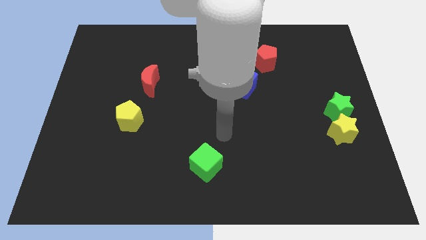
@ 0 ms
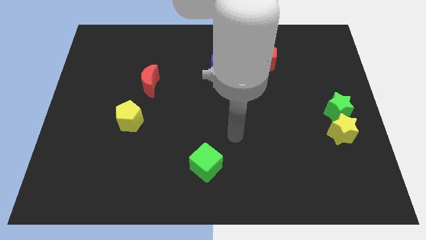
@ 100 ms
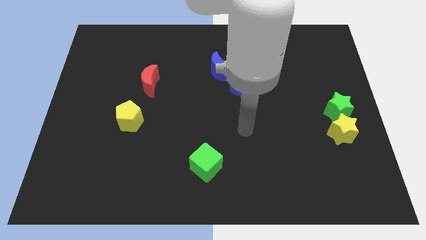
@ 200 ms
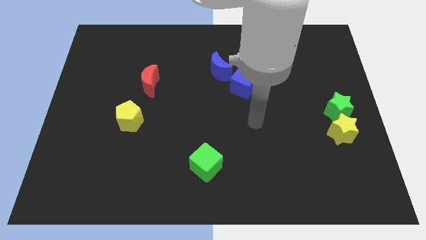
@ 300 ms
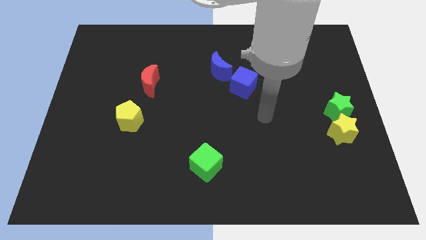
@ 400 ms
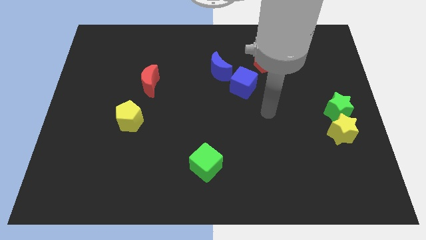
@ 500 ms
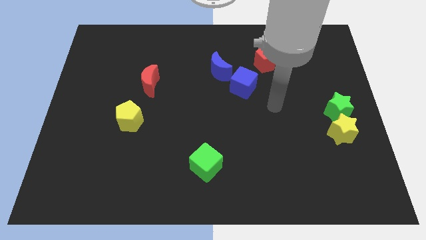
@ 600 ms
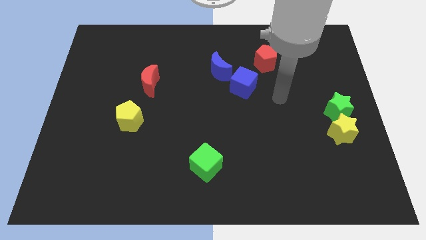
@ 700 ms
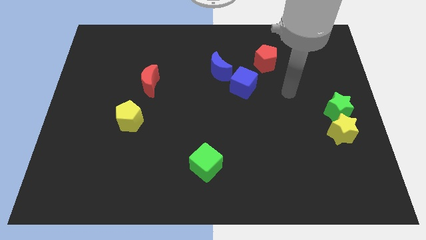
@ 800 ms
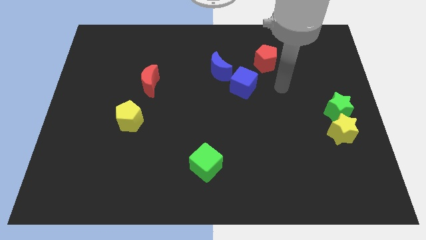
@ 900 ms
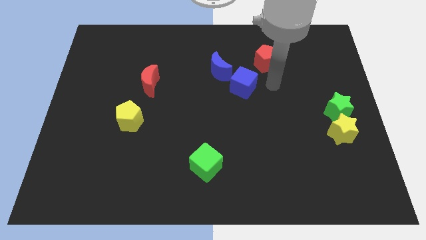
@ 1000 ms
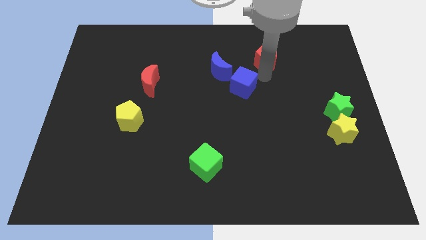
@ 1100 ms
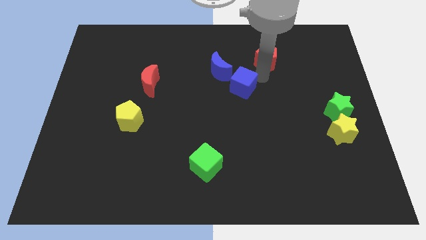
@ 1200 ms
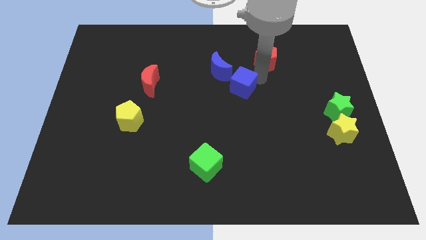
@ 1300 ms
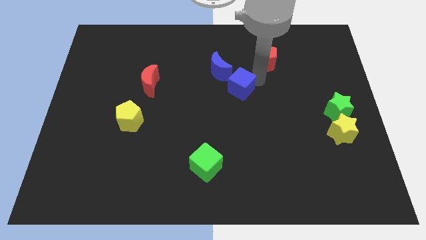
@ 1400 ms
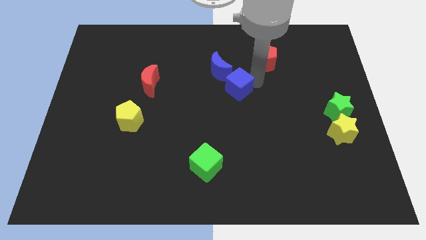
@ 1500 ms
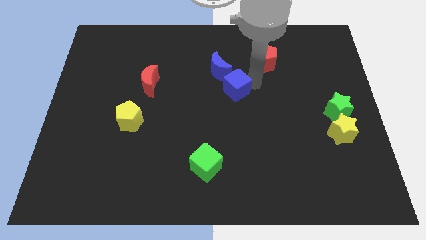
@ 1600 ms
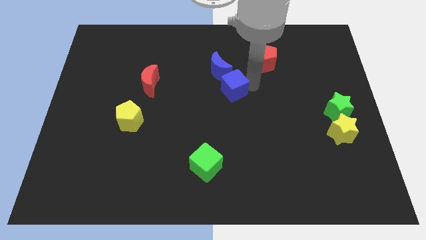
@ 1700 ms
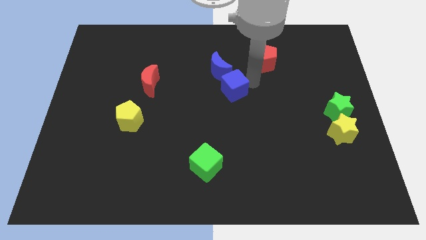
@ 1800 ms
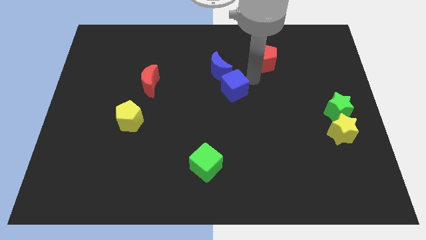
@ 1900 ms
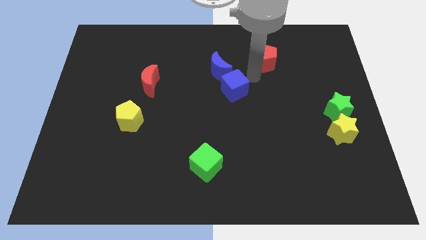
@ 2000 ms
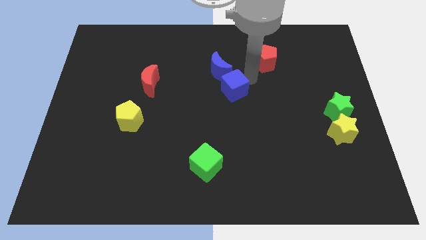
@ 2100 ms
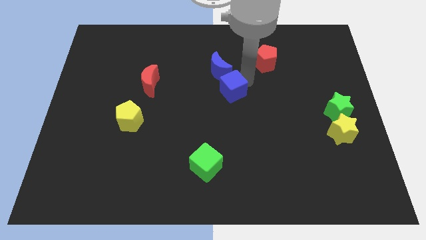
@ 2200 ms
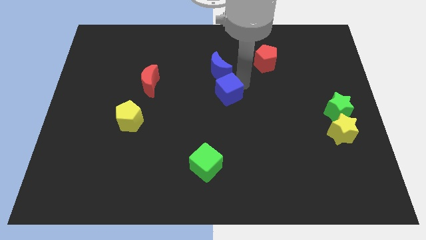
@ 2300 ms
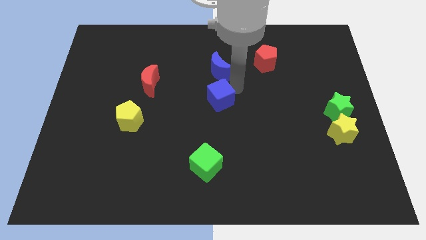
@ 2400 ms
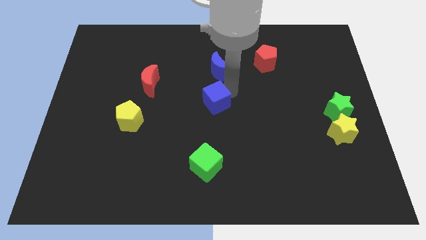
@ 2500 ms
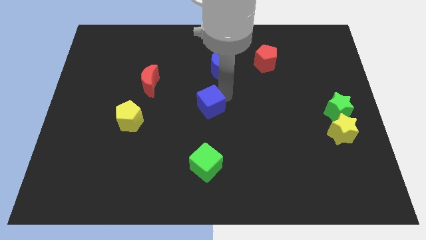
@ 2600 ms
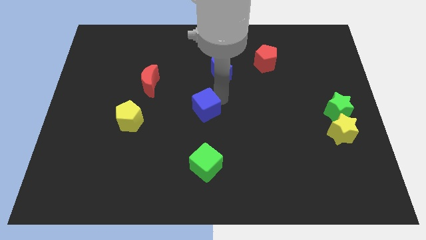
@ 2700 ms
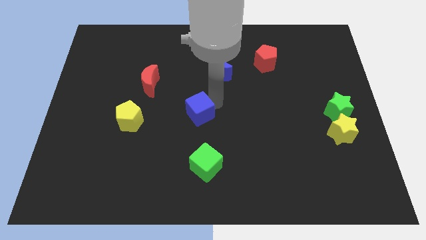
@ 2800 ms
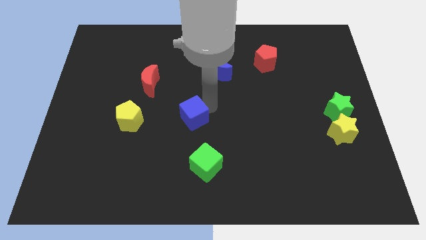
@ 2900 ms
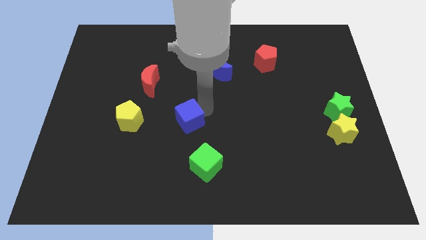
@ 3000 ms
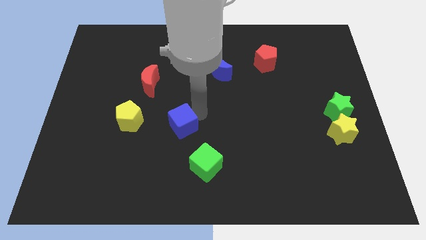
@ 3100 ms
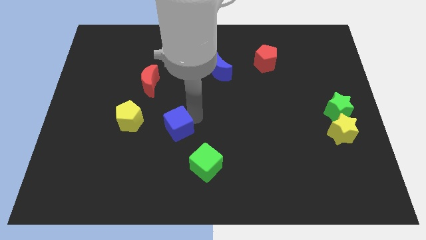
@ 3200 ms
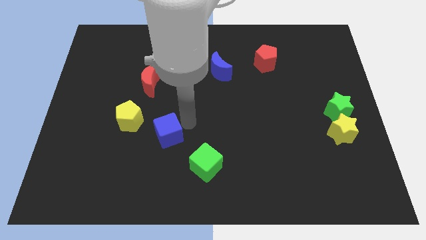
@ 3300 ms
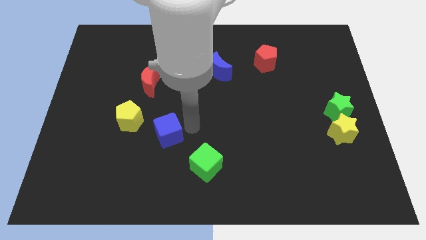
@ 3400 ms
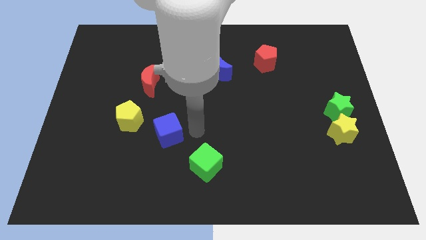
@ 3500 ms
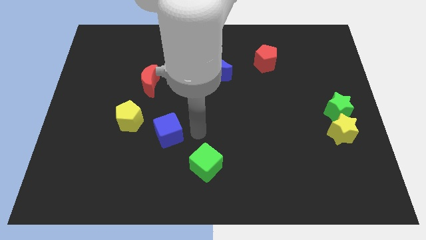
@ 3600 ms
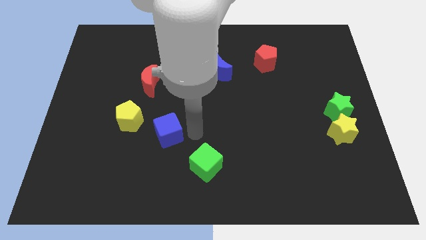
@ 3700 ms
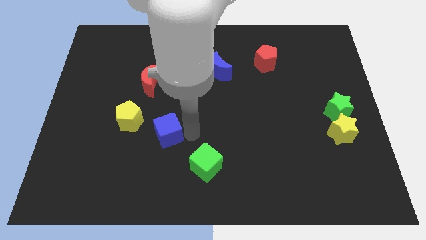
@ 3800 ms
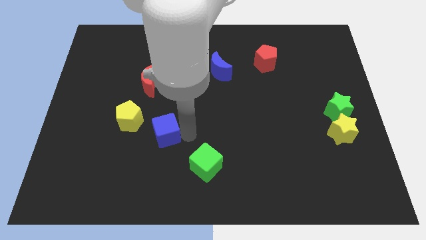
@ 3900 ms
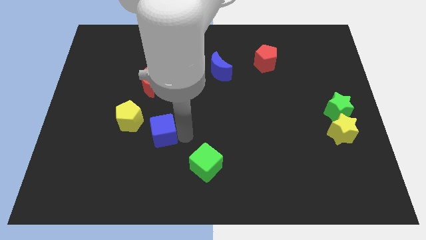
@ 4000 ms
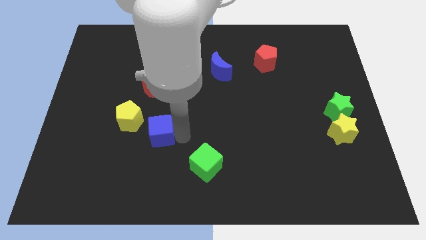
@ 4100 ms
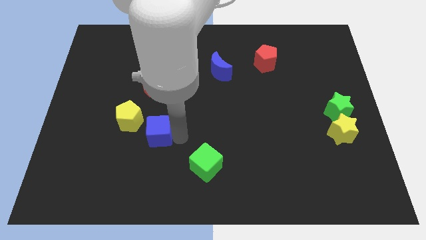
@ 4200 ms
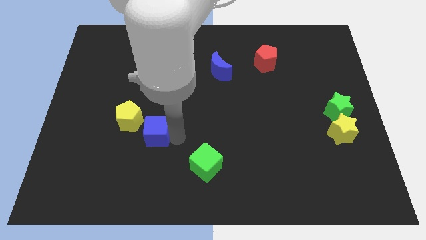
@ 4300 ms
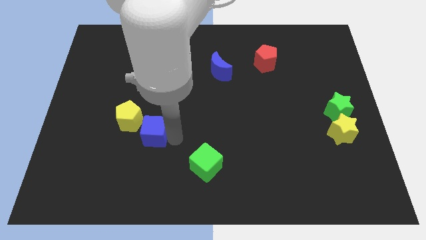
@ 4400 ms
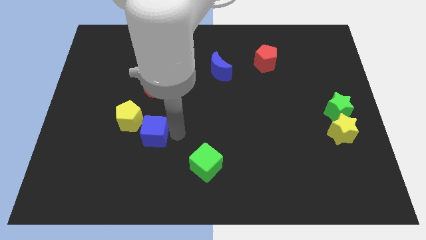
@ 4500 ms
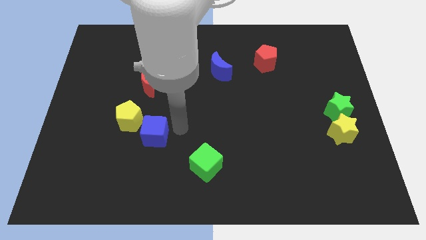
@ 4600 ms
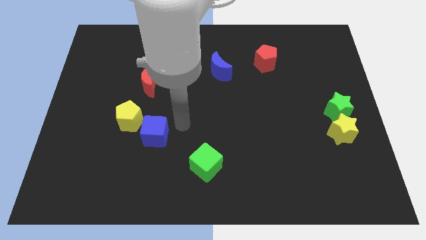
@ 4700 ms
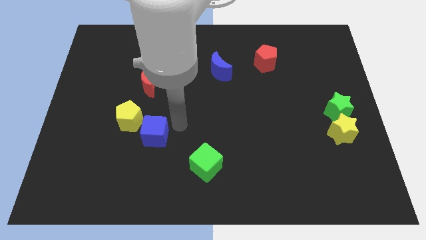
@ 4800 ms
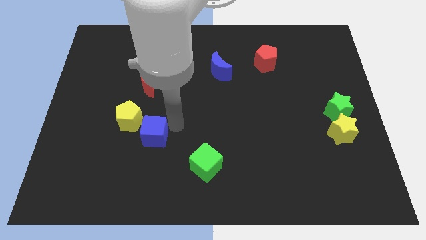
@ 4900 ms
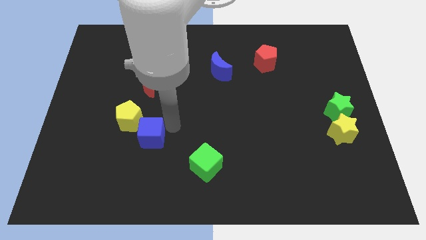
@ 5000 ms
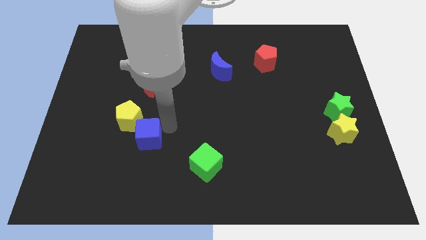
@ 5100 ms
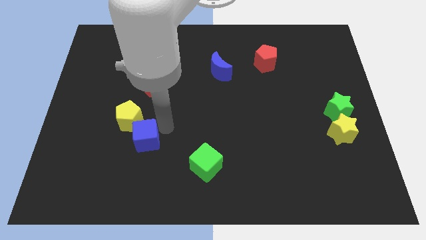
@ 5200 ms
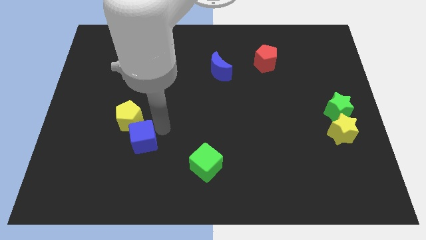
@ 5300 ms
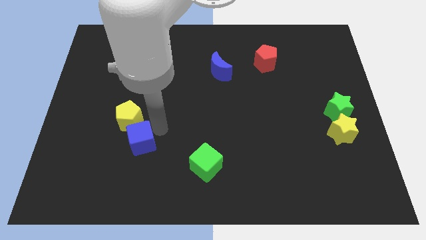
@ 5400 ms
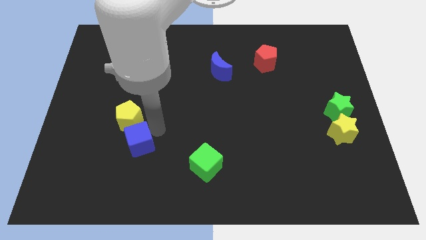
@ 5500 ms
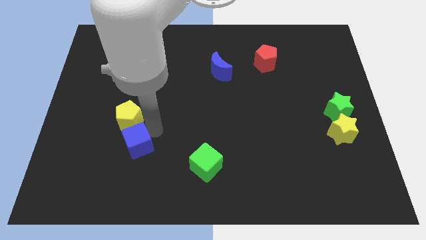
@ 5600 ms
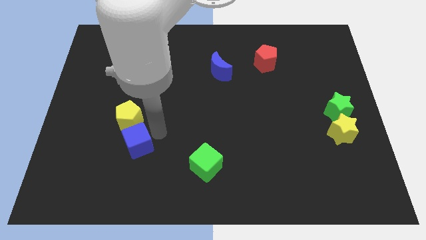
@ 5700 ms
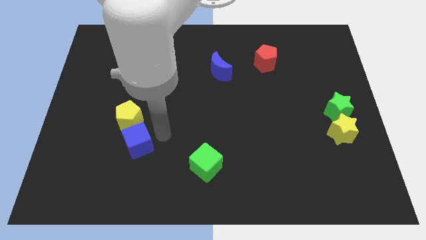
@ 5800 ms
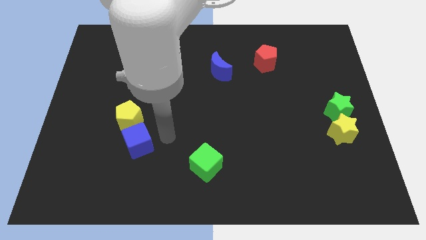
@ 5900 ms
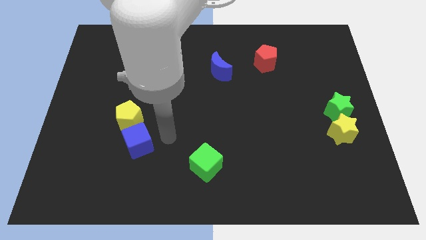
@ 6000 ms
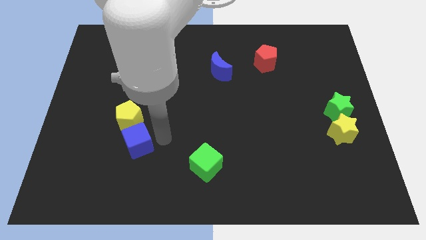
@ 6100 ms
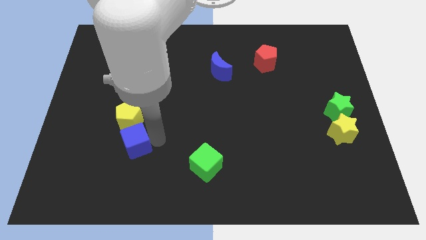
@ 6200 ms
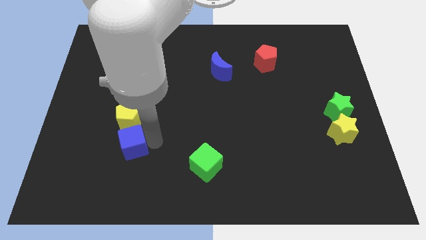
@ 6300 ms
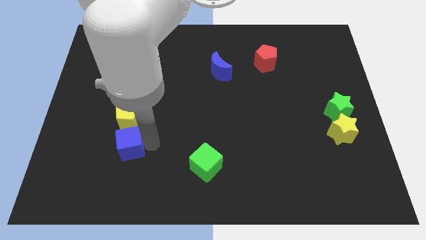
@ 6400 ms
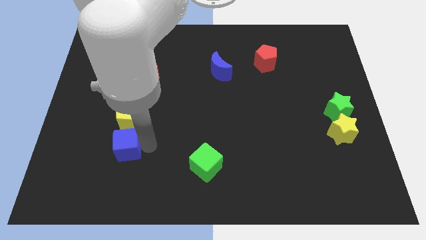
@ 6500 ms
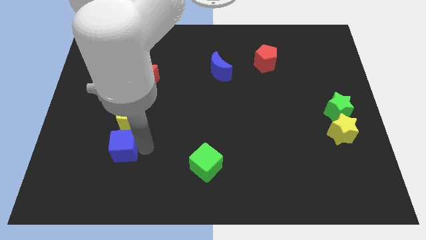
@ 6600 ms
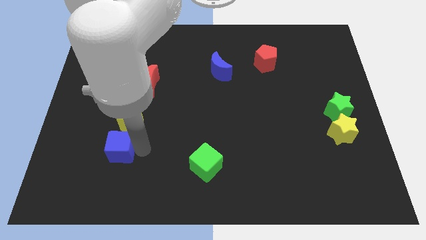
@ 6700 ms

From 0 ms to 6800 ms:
push the blue cube to the bottom left side of the yellow pentagon
